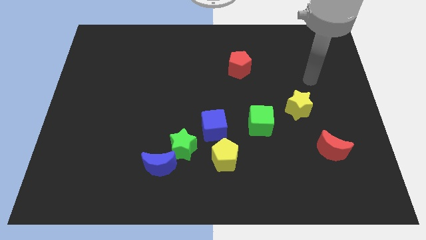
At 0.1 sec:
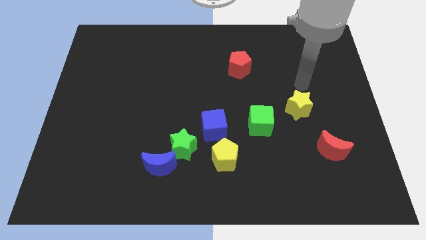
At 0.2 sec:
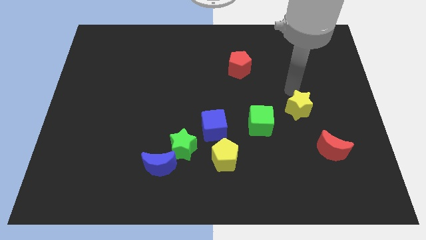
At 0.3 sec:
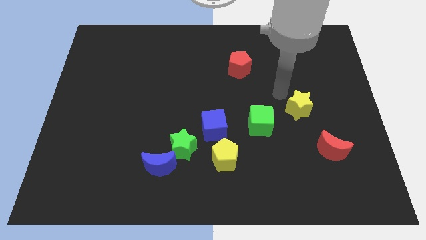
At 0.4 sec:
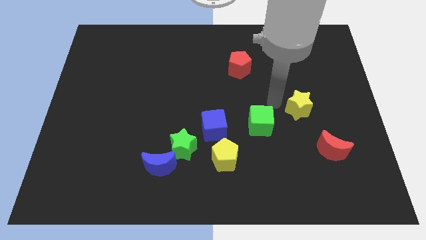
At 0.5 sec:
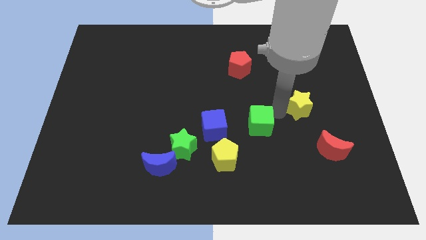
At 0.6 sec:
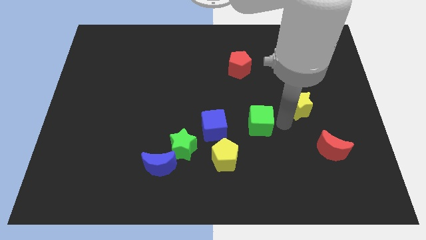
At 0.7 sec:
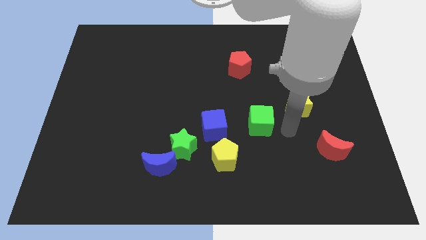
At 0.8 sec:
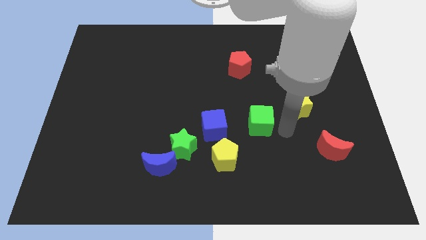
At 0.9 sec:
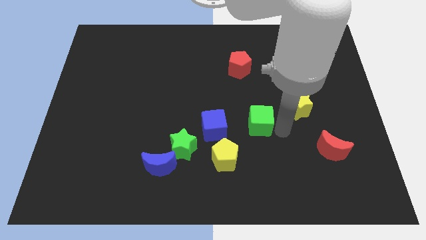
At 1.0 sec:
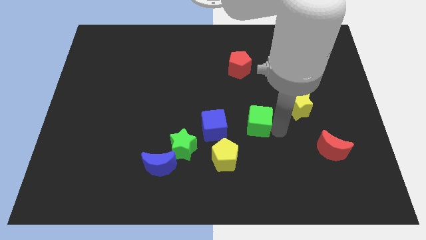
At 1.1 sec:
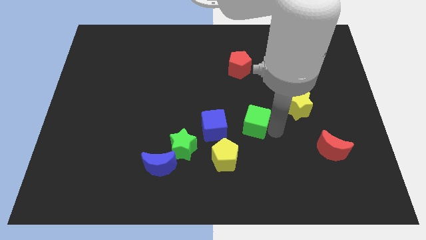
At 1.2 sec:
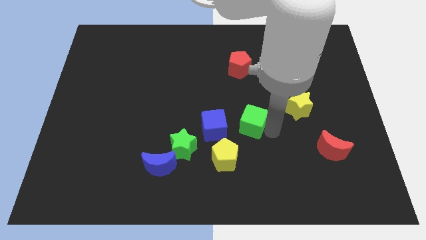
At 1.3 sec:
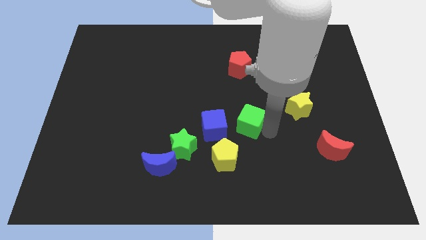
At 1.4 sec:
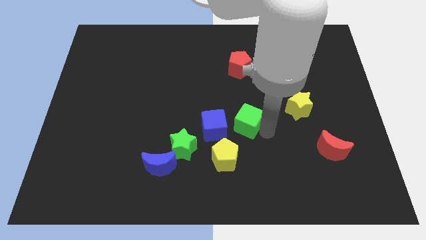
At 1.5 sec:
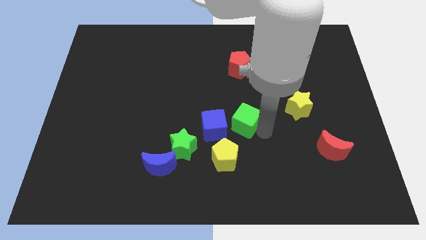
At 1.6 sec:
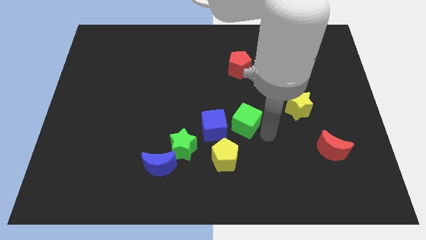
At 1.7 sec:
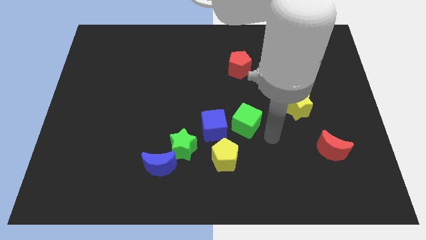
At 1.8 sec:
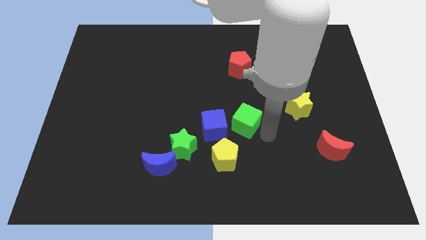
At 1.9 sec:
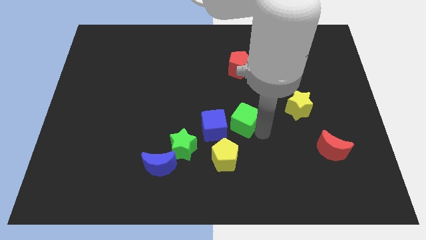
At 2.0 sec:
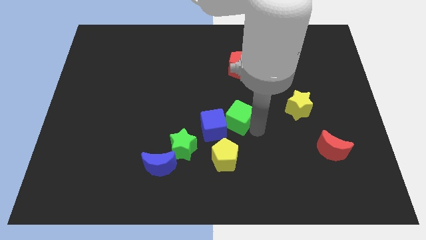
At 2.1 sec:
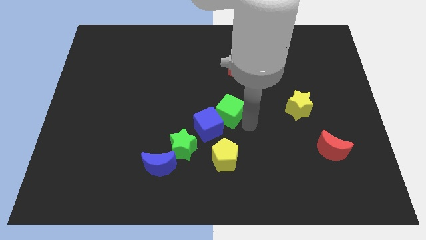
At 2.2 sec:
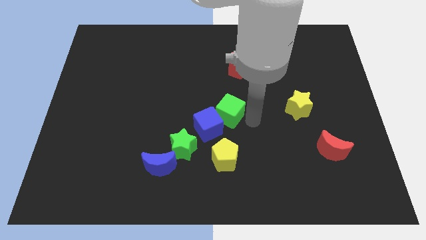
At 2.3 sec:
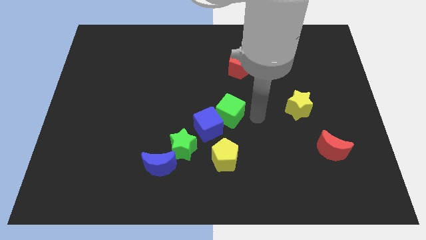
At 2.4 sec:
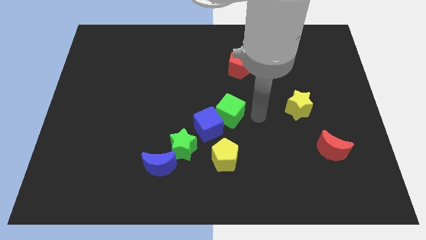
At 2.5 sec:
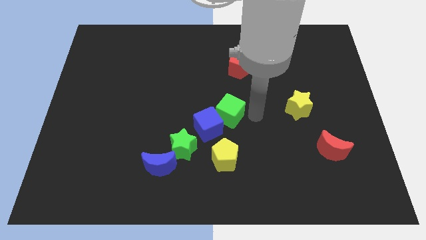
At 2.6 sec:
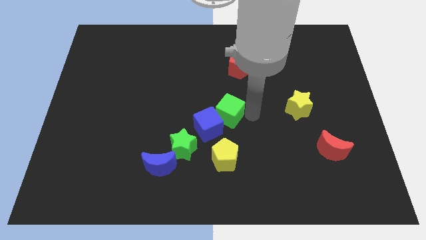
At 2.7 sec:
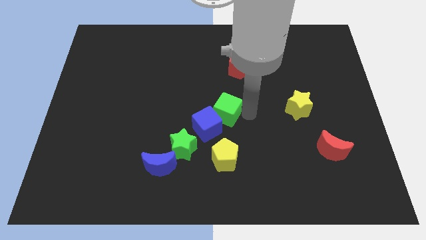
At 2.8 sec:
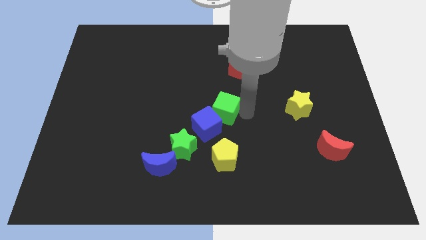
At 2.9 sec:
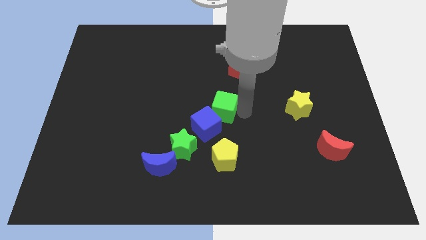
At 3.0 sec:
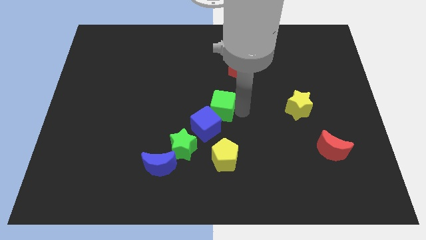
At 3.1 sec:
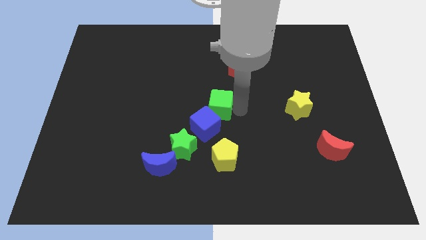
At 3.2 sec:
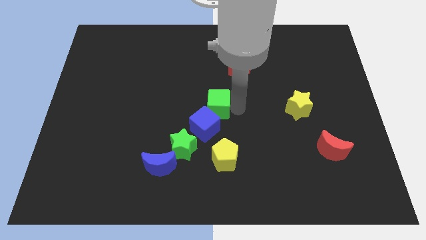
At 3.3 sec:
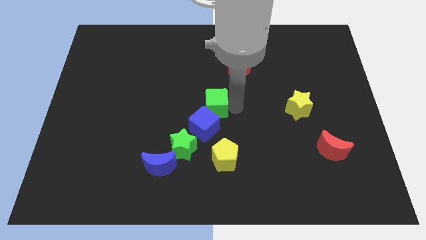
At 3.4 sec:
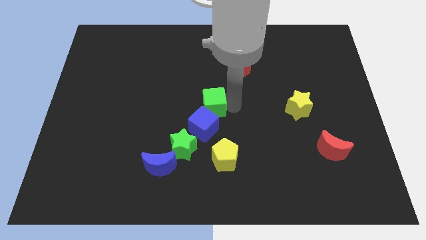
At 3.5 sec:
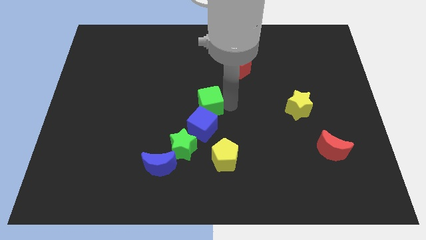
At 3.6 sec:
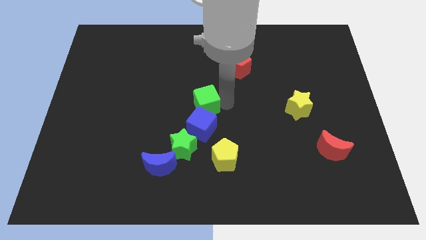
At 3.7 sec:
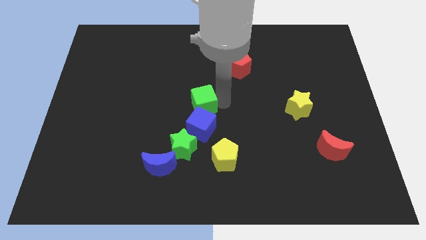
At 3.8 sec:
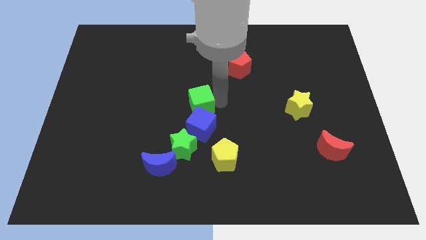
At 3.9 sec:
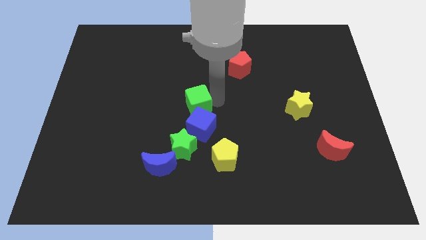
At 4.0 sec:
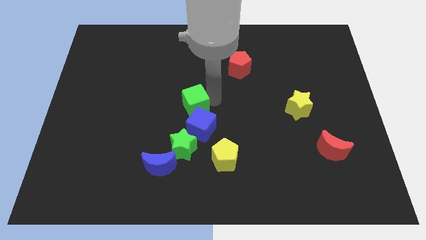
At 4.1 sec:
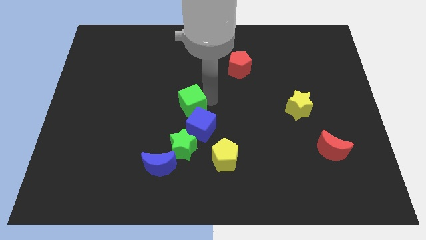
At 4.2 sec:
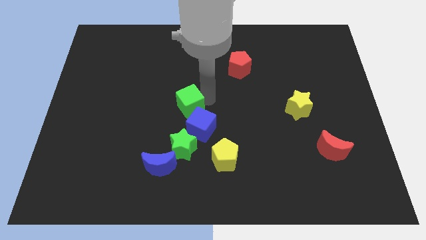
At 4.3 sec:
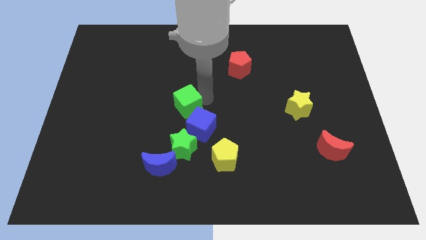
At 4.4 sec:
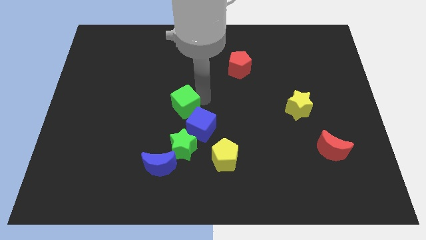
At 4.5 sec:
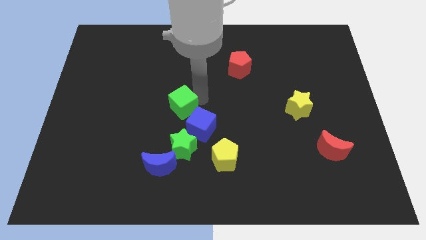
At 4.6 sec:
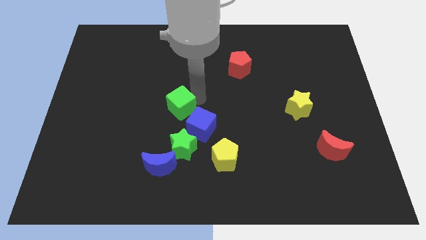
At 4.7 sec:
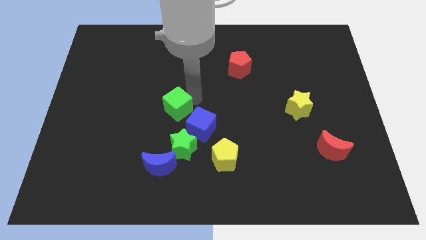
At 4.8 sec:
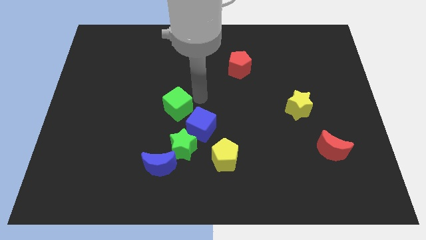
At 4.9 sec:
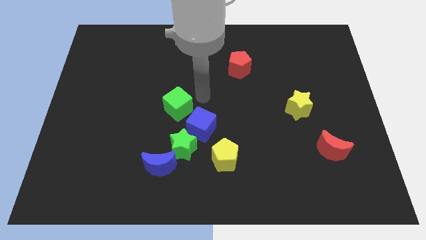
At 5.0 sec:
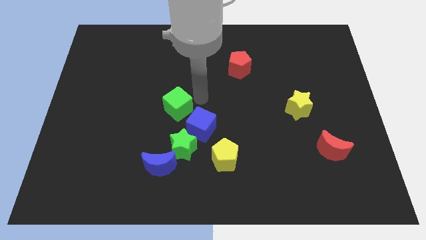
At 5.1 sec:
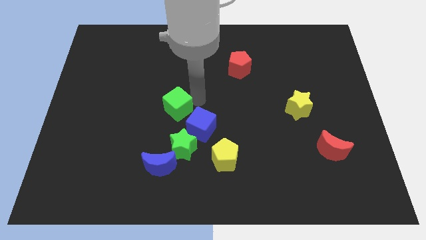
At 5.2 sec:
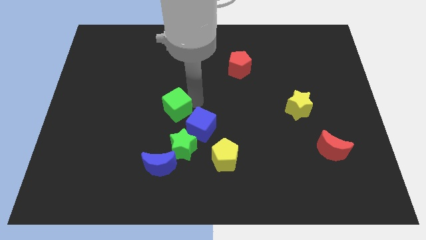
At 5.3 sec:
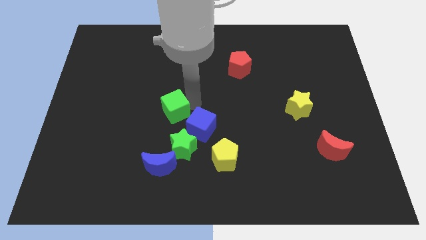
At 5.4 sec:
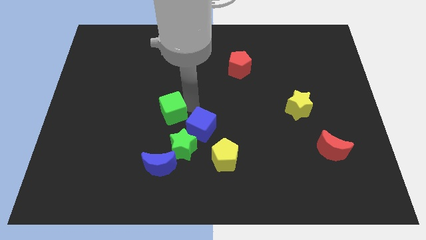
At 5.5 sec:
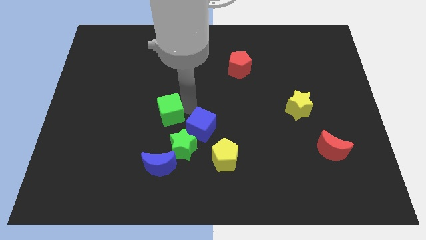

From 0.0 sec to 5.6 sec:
push the green cube to the left

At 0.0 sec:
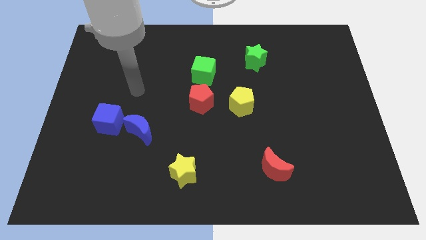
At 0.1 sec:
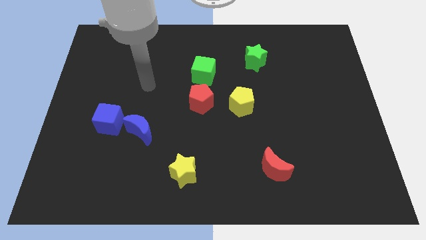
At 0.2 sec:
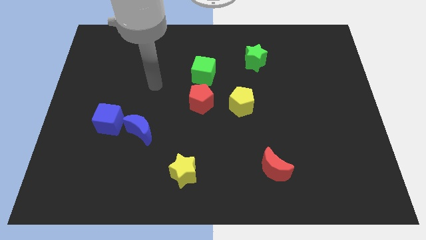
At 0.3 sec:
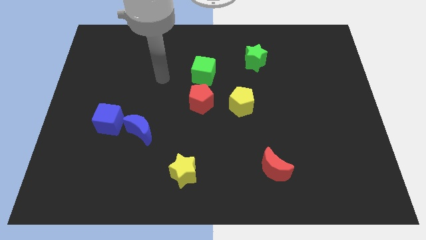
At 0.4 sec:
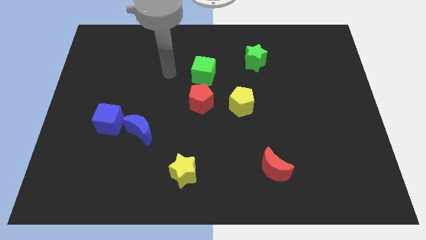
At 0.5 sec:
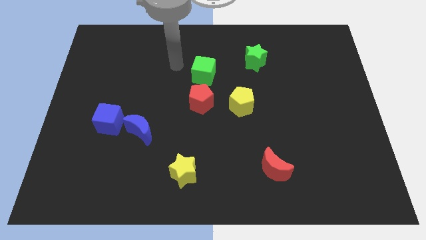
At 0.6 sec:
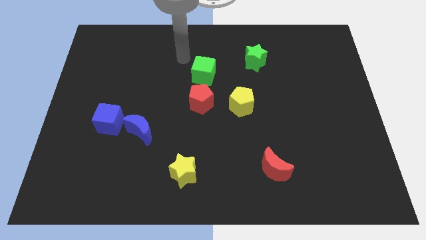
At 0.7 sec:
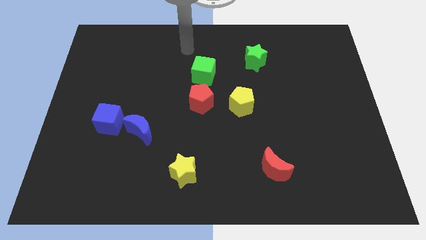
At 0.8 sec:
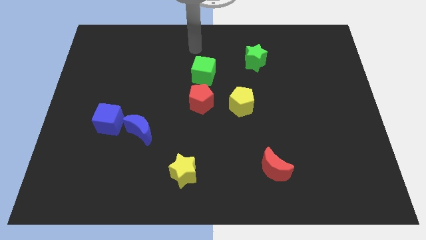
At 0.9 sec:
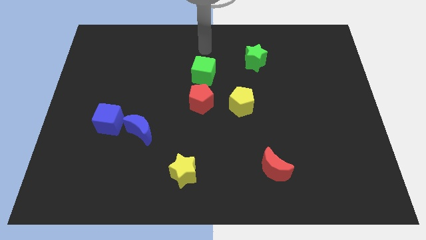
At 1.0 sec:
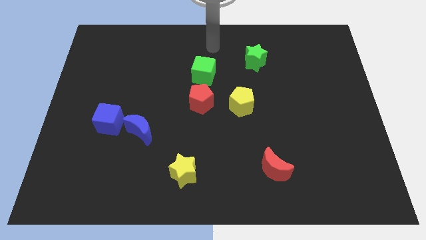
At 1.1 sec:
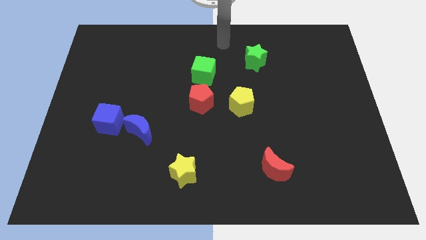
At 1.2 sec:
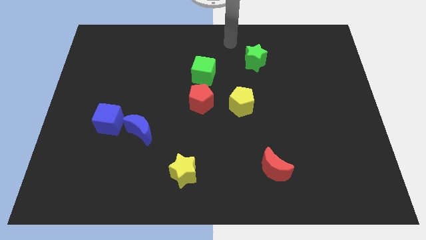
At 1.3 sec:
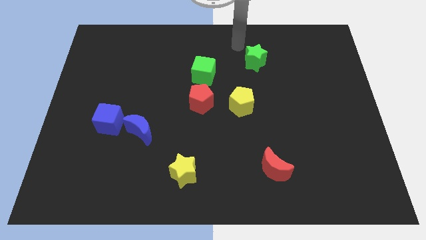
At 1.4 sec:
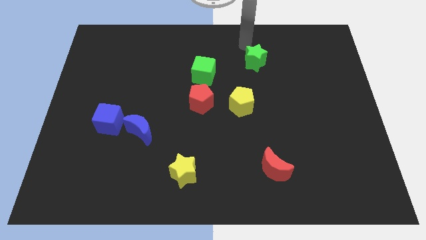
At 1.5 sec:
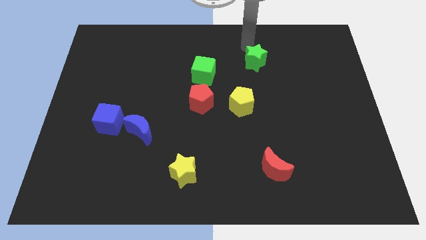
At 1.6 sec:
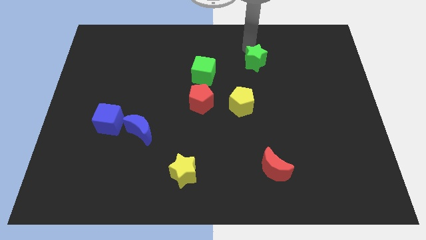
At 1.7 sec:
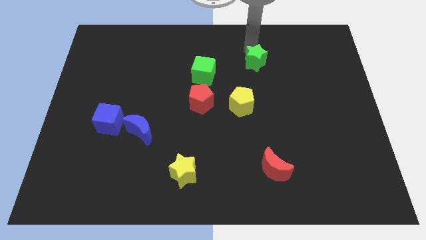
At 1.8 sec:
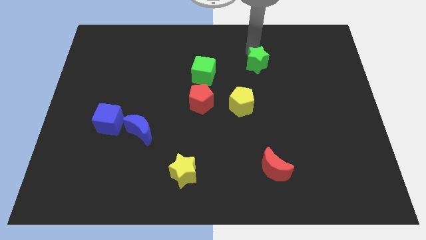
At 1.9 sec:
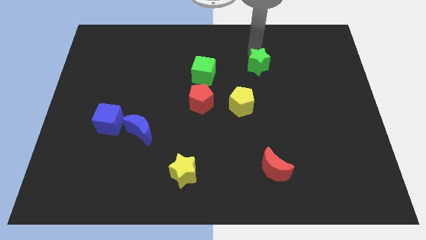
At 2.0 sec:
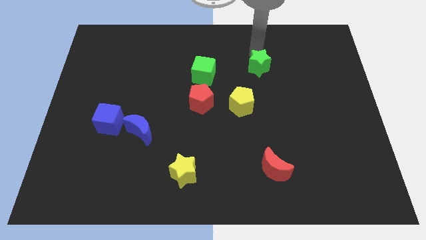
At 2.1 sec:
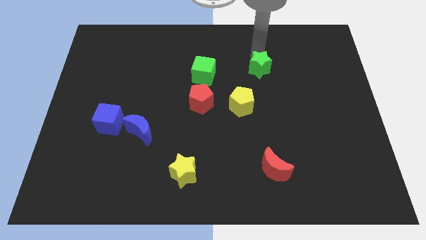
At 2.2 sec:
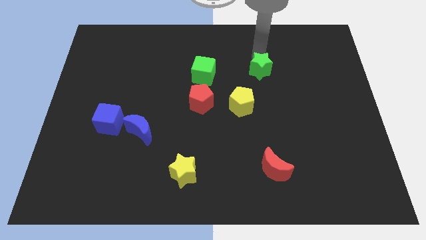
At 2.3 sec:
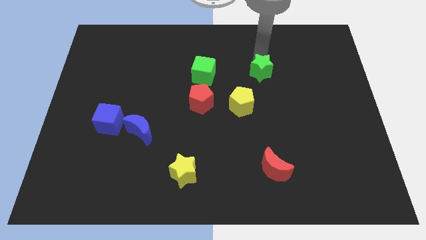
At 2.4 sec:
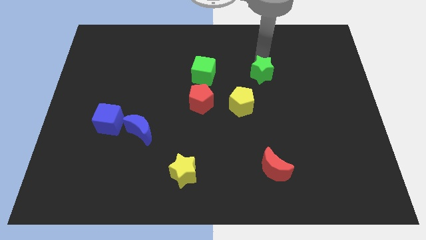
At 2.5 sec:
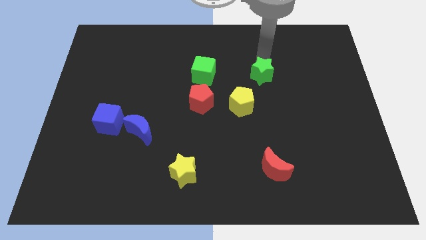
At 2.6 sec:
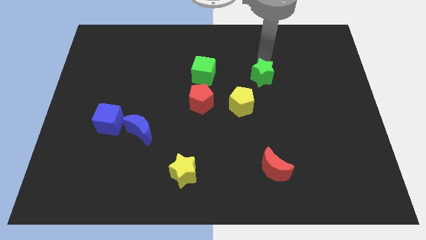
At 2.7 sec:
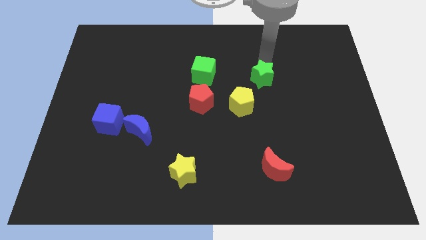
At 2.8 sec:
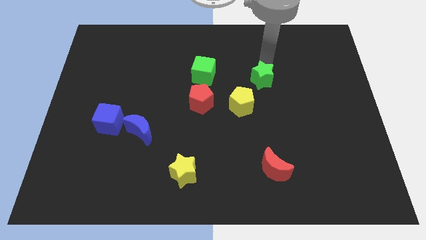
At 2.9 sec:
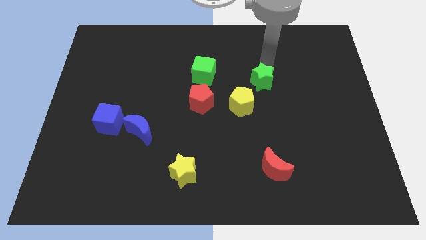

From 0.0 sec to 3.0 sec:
move the green star somewhat downwards
